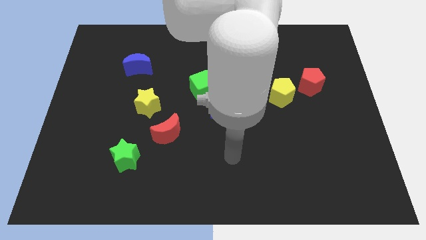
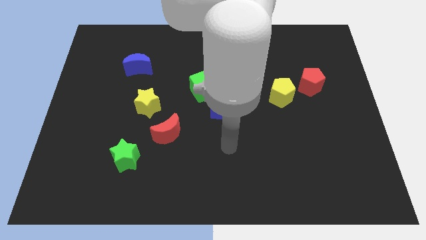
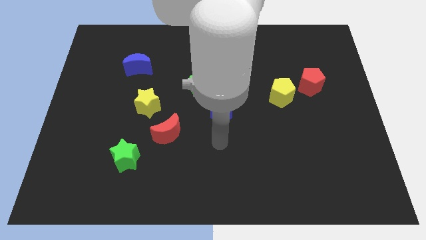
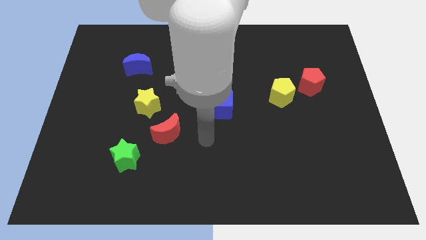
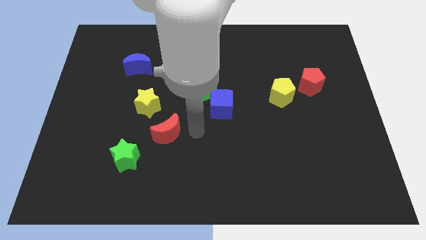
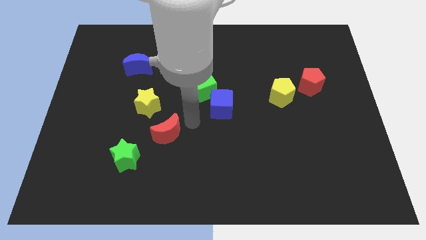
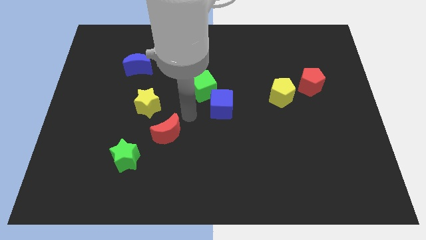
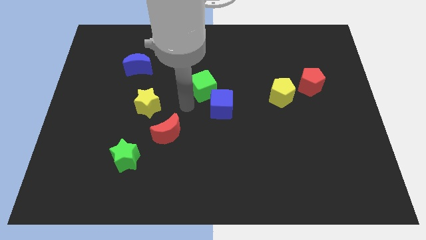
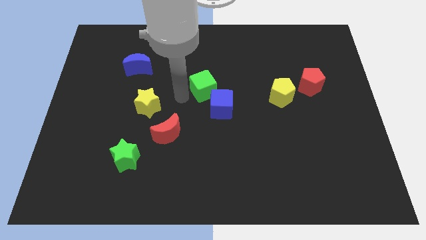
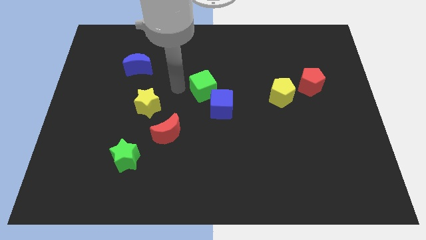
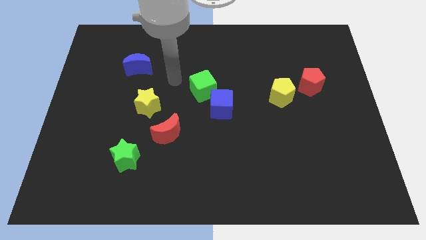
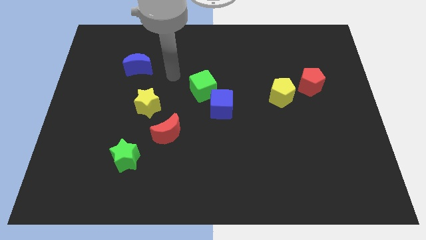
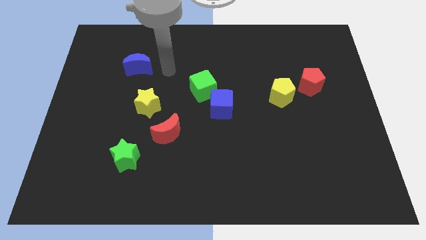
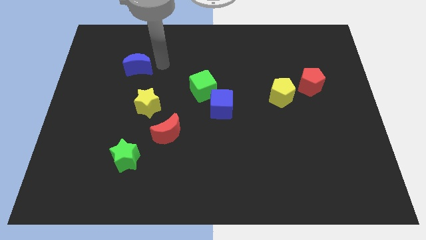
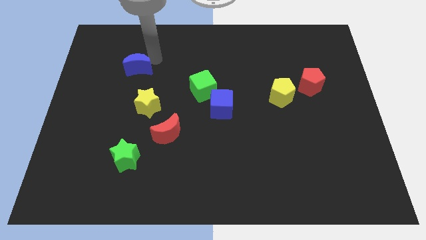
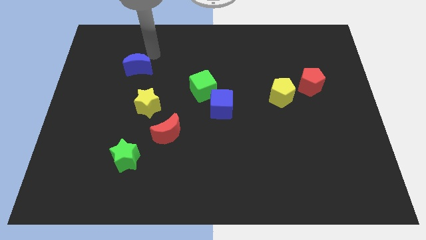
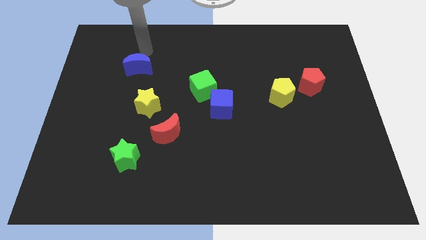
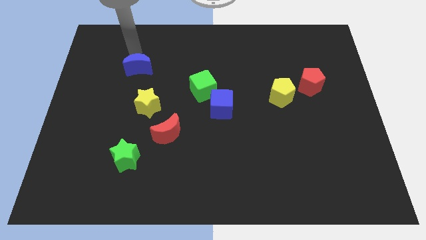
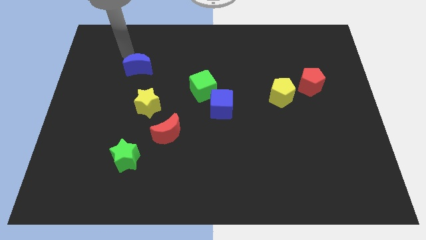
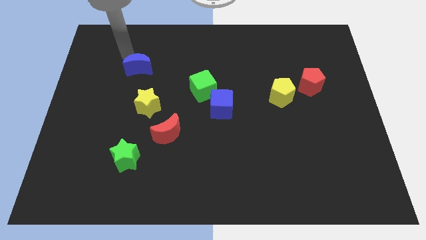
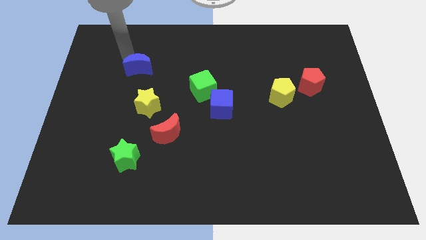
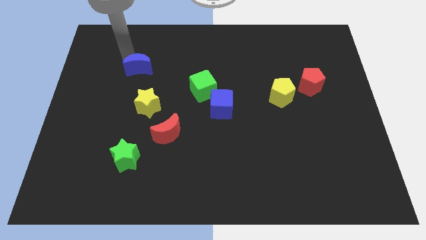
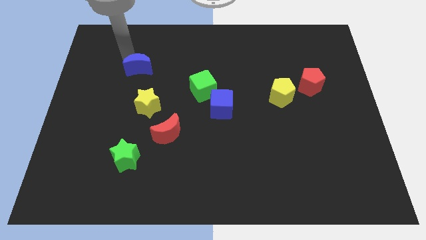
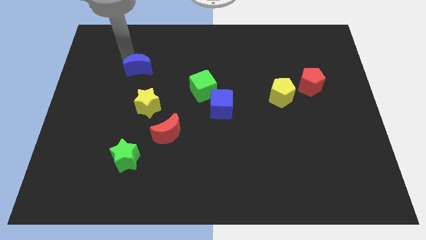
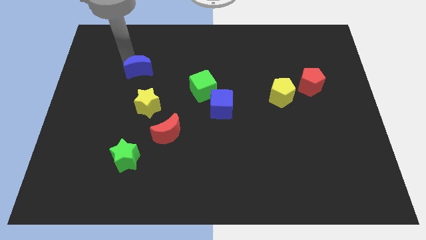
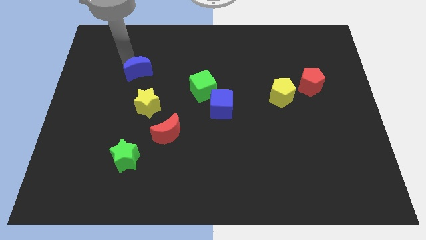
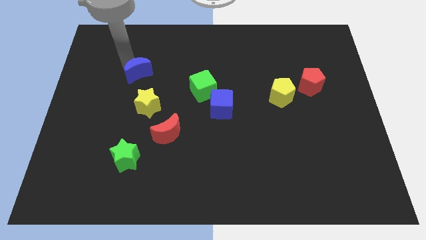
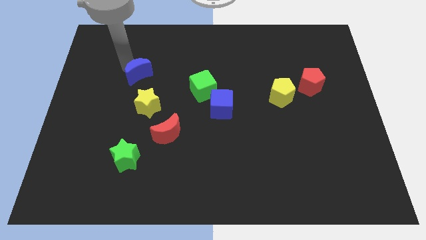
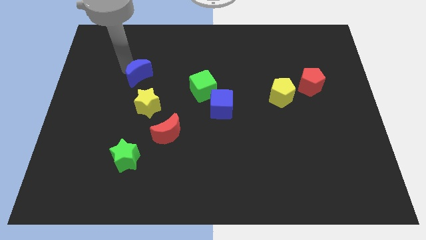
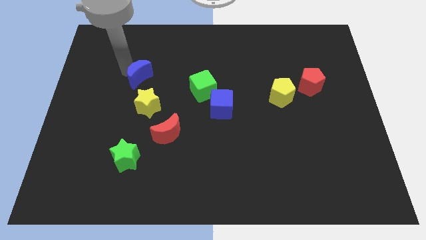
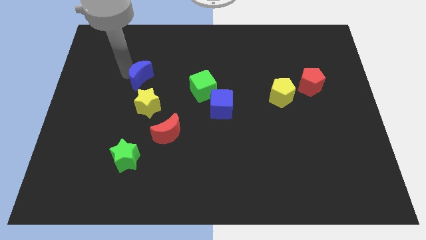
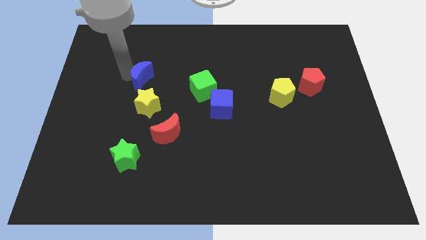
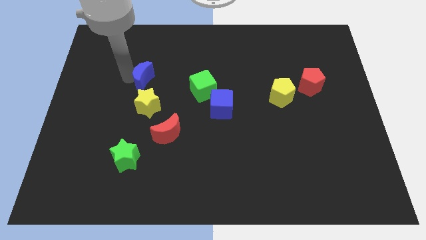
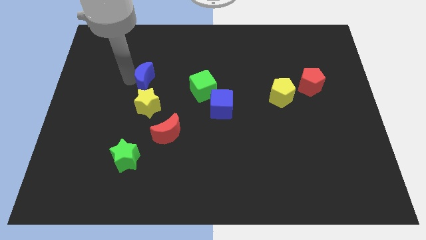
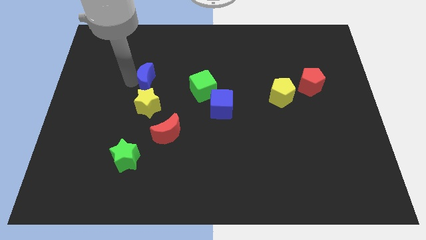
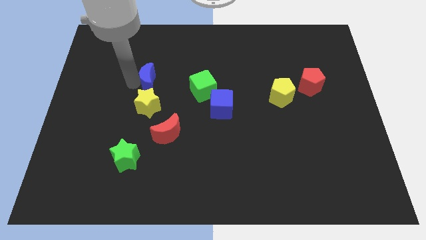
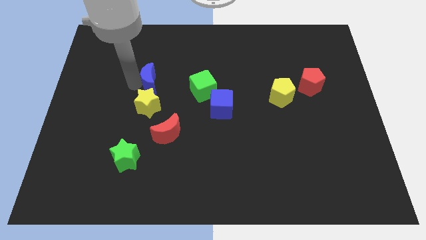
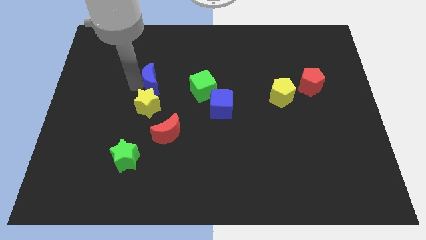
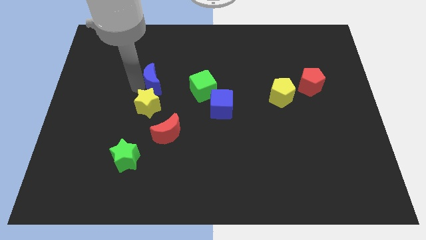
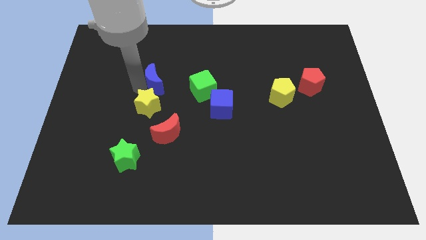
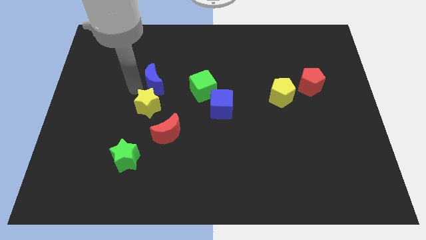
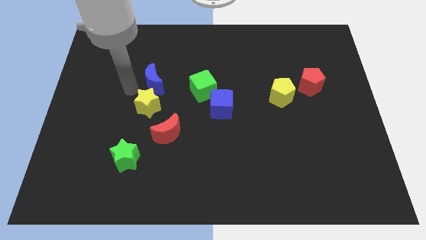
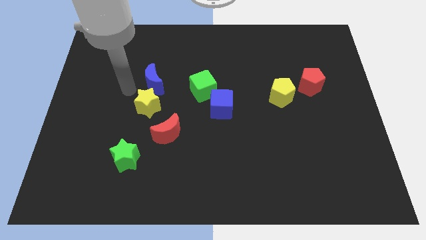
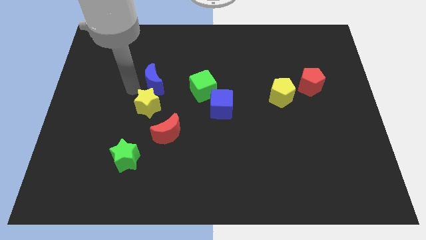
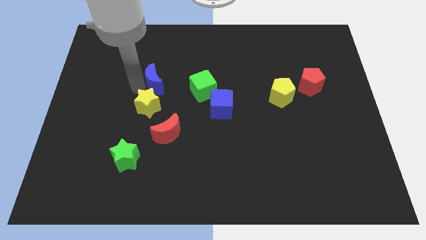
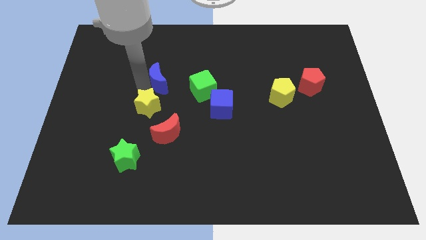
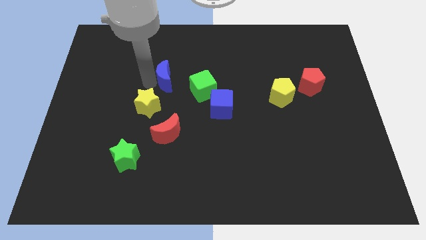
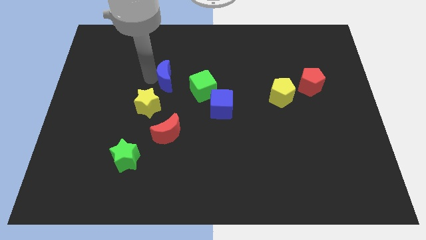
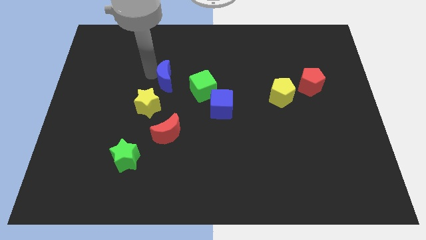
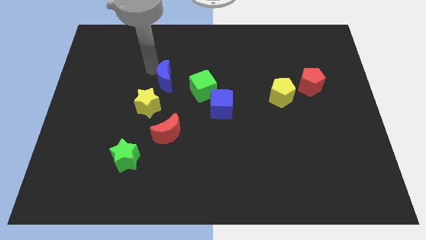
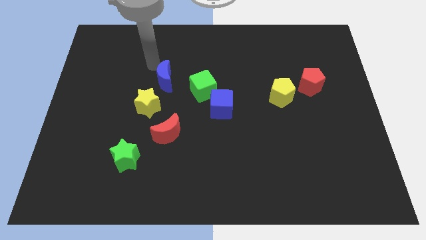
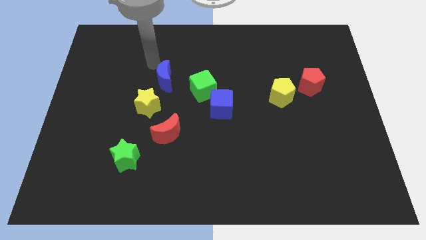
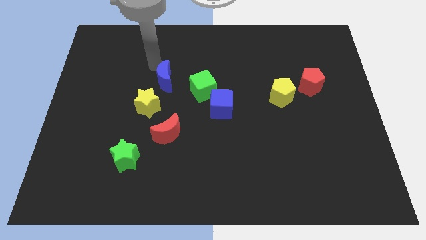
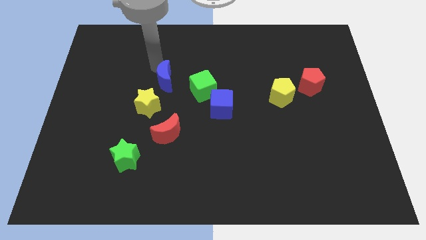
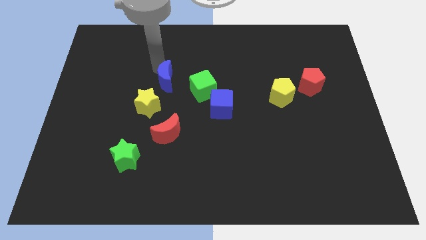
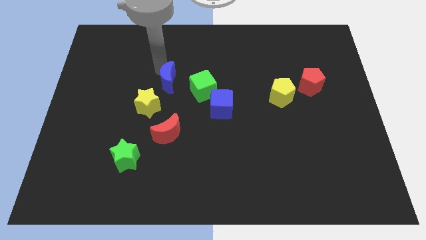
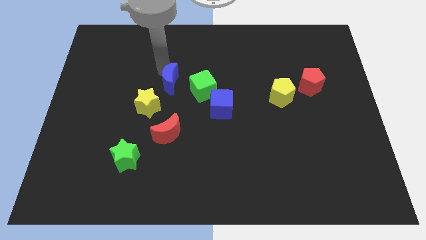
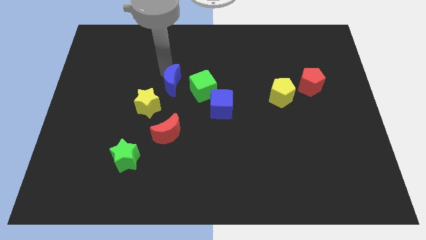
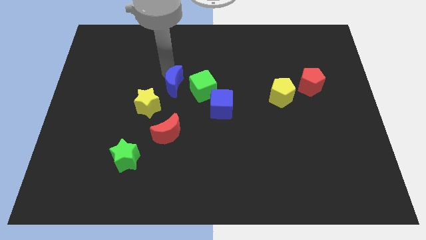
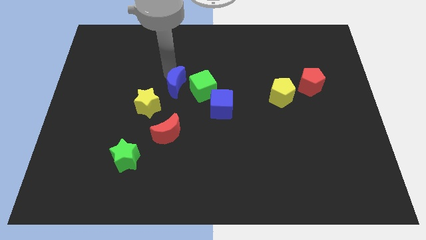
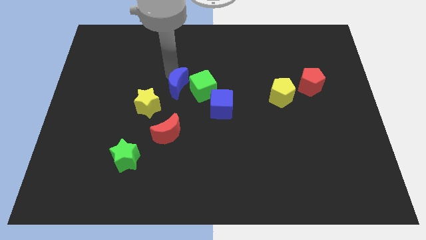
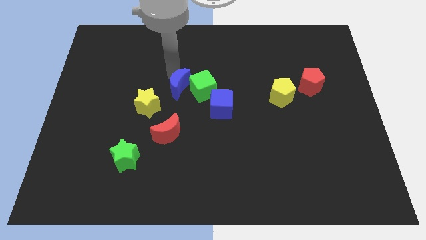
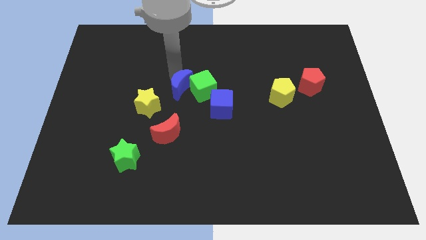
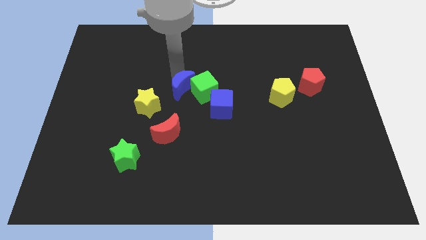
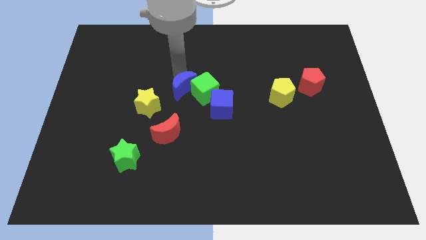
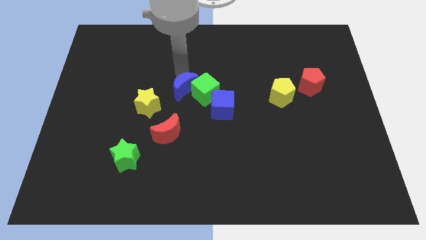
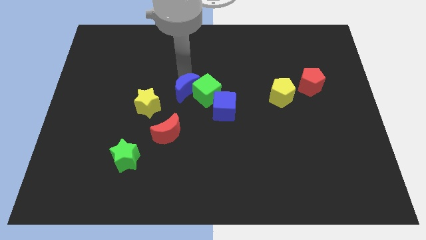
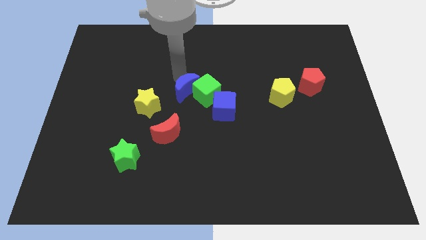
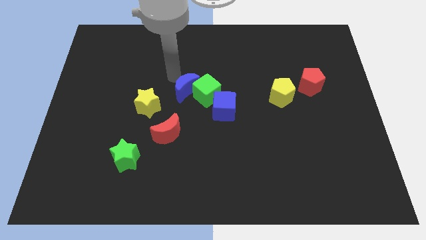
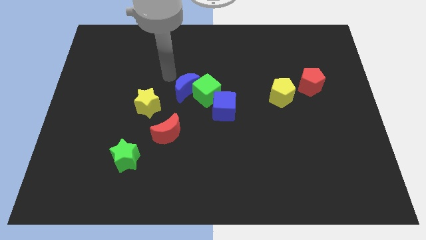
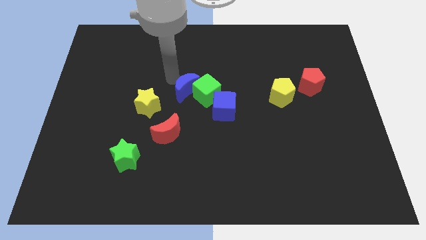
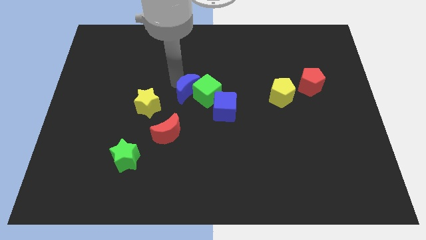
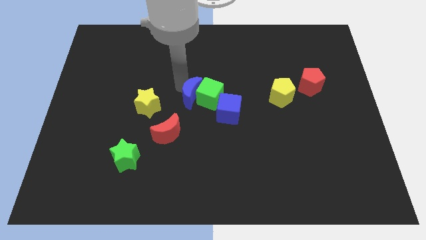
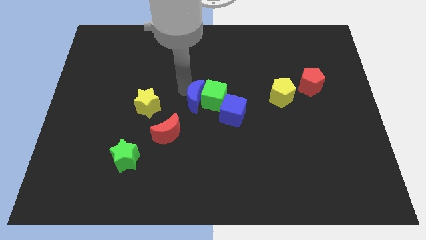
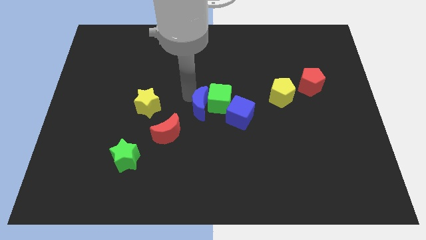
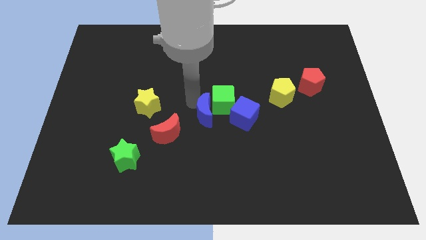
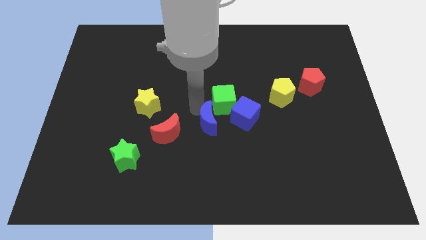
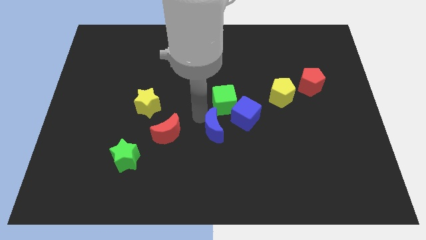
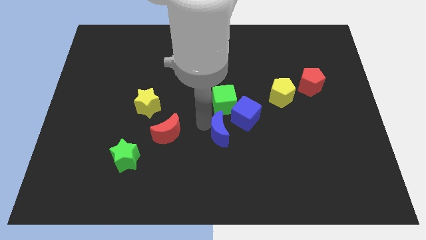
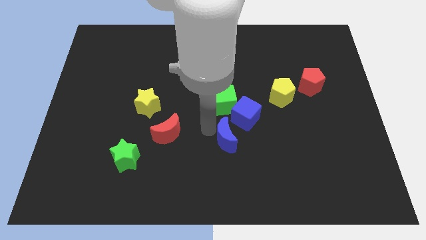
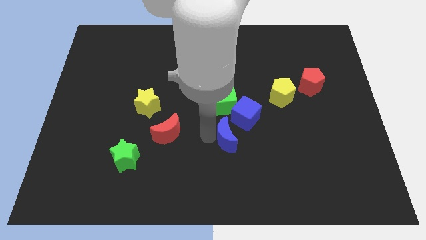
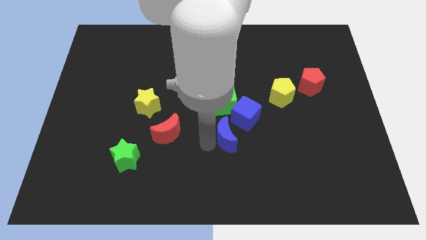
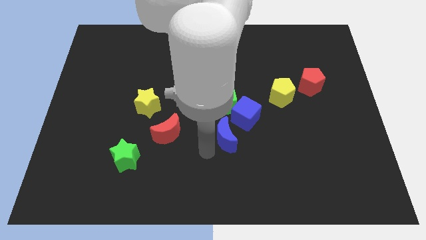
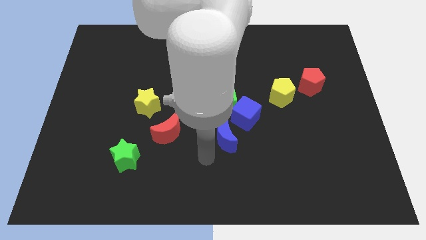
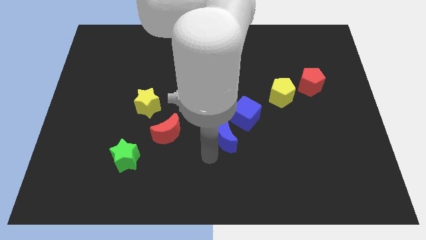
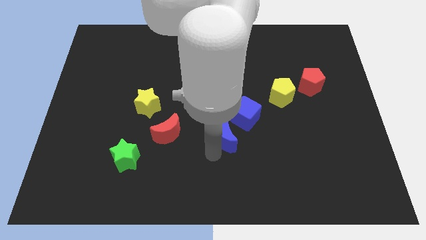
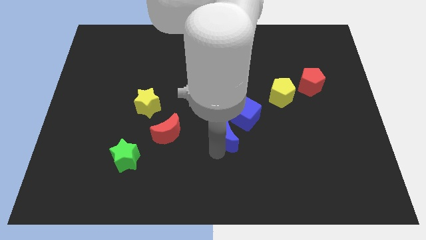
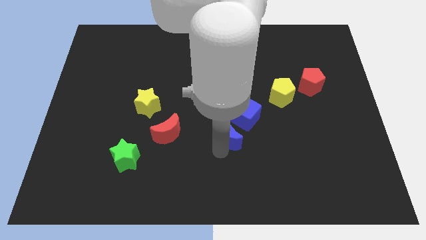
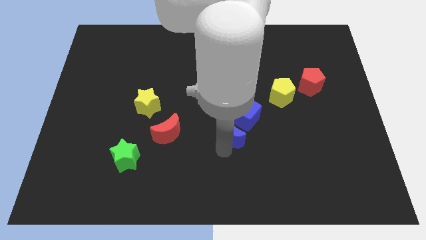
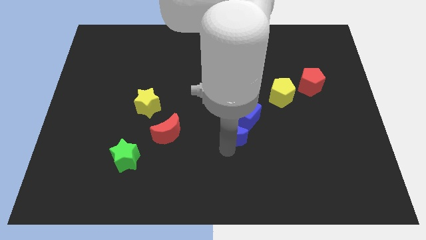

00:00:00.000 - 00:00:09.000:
put the blue moon towards the blue cube
